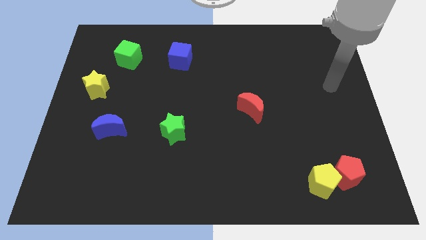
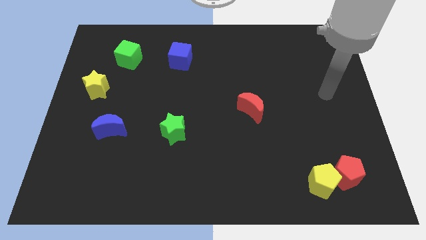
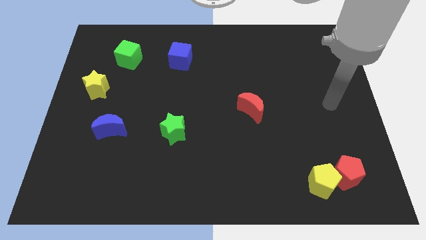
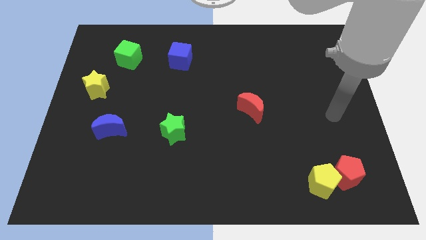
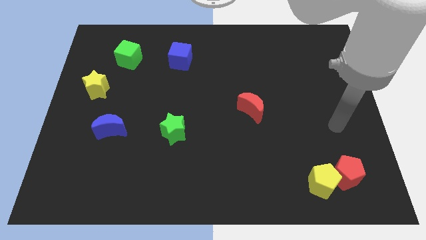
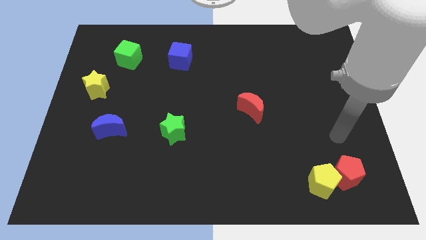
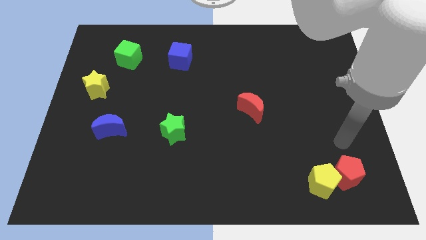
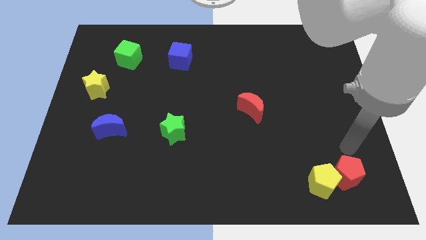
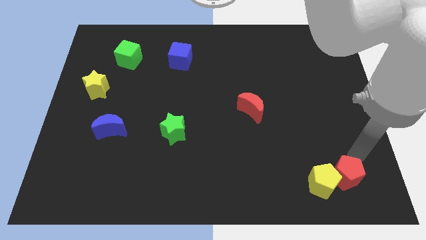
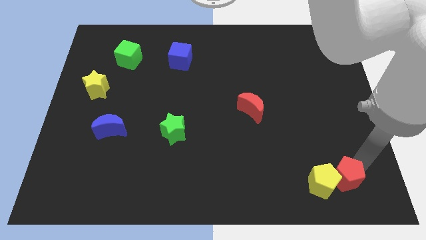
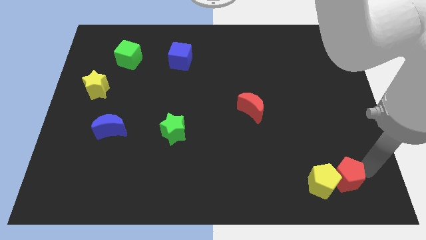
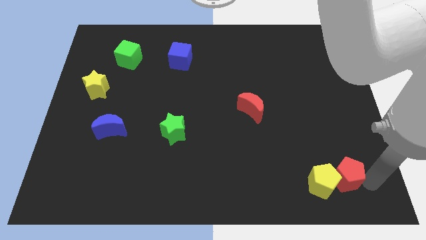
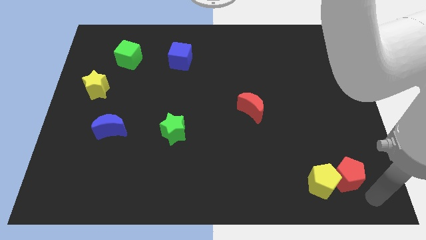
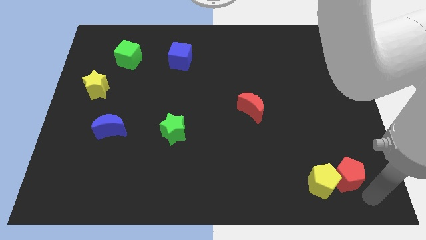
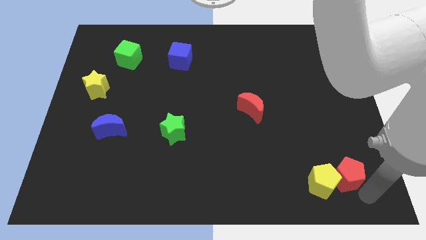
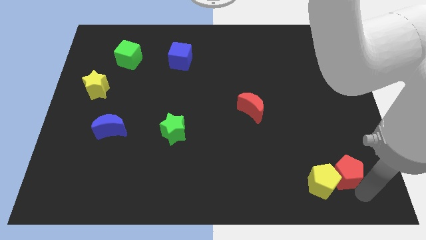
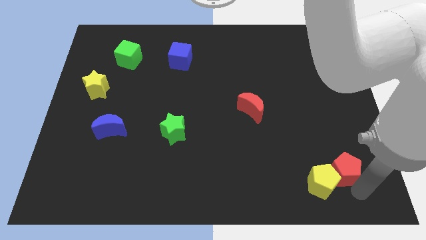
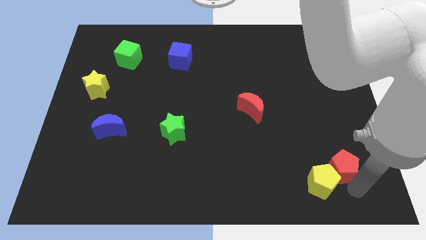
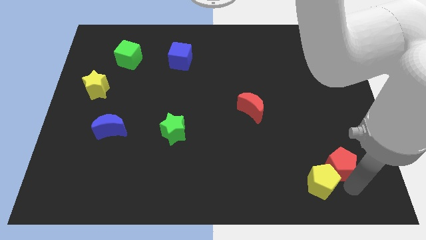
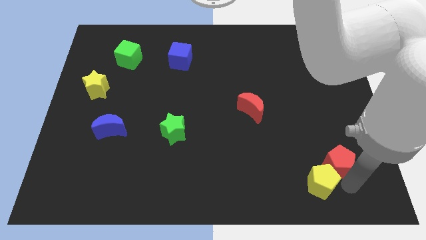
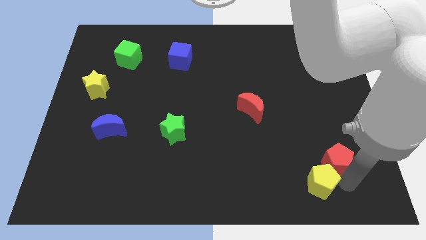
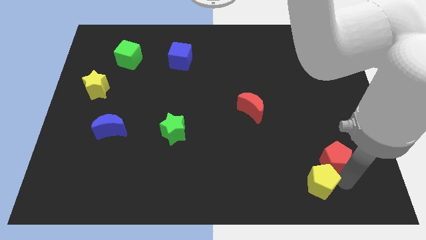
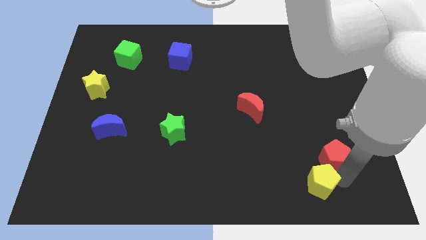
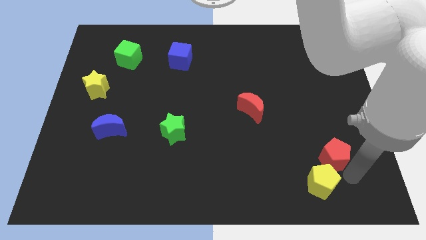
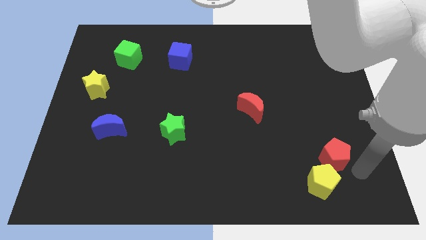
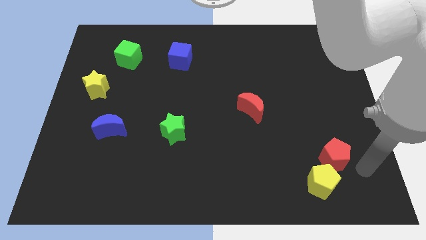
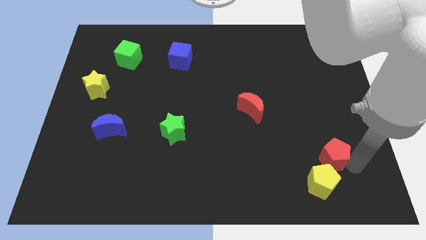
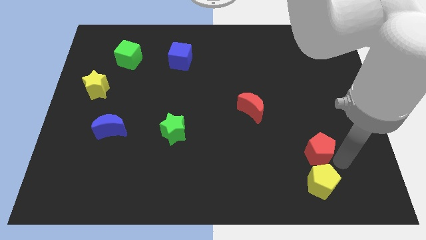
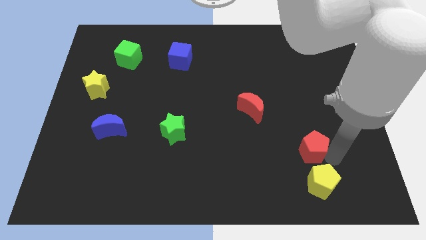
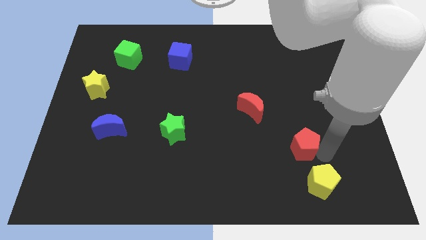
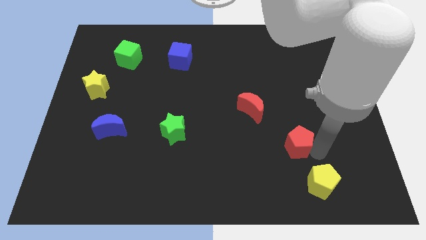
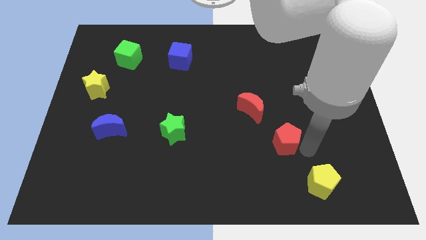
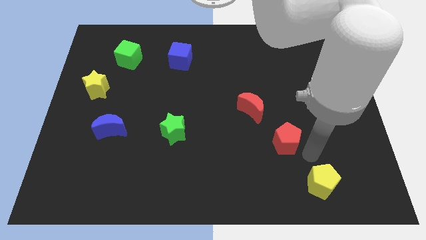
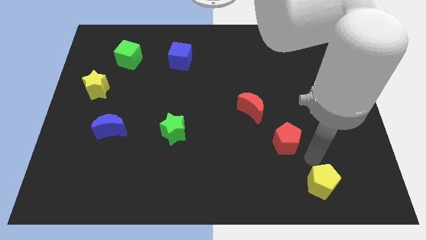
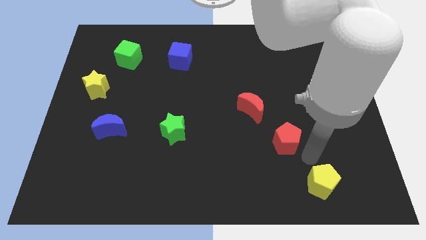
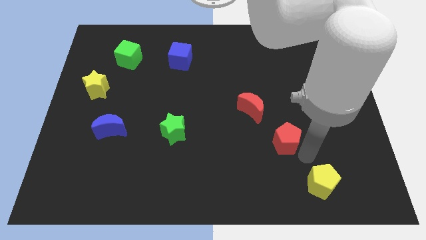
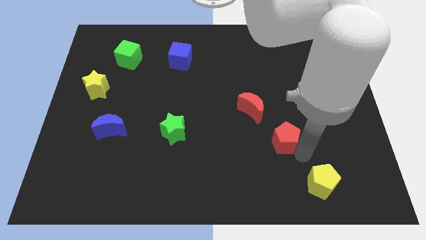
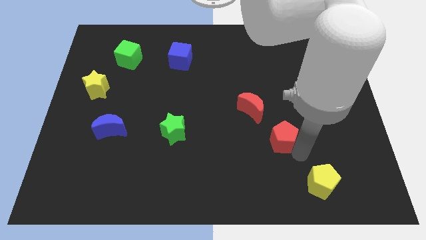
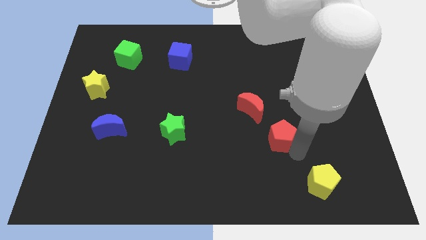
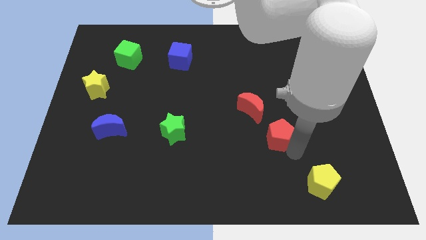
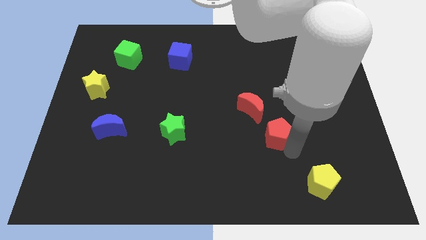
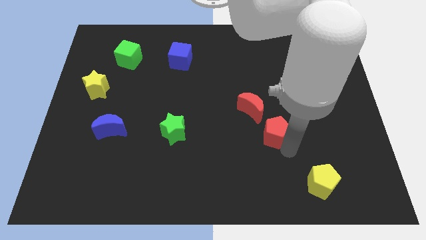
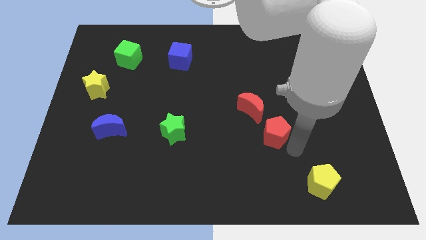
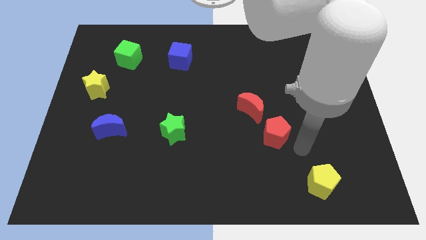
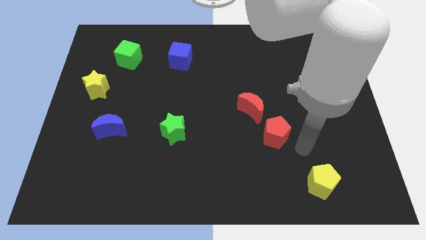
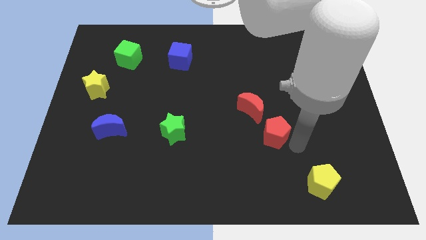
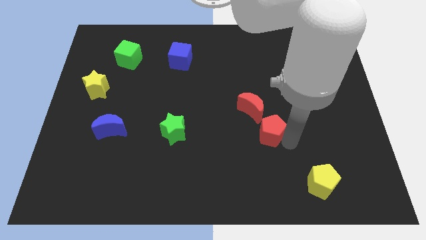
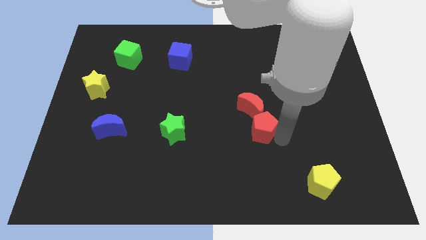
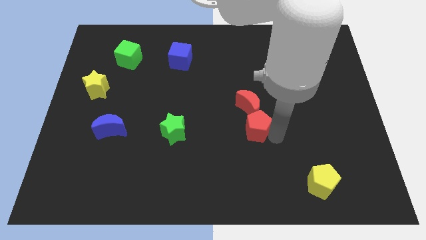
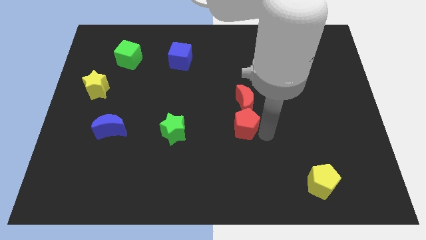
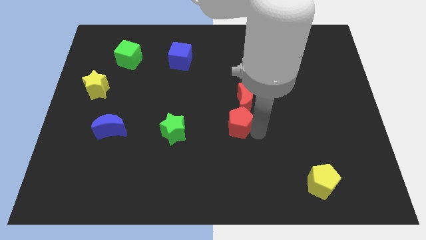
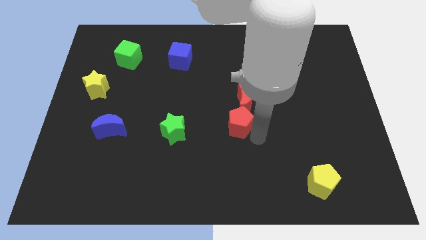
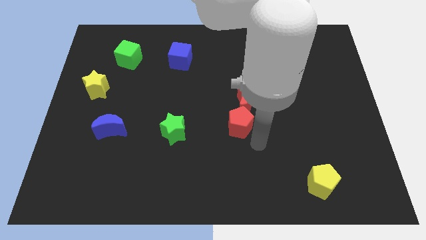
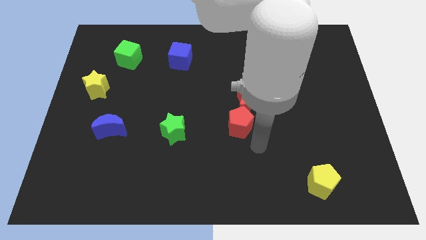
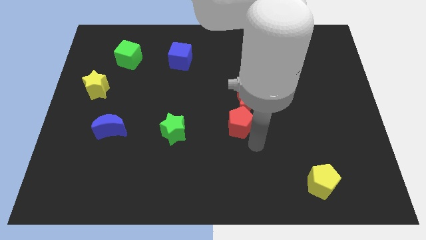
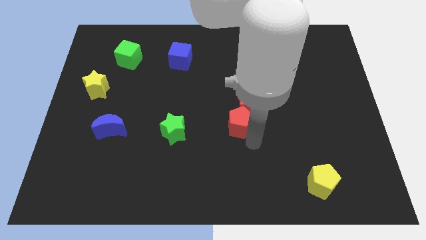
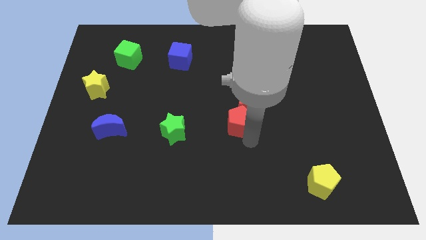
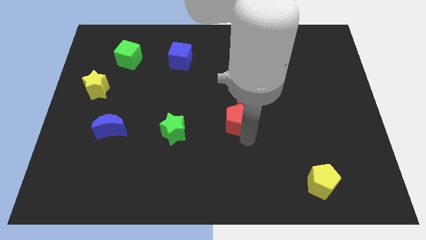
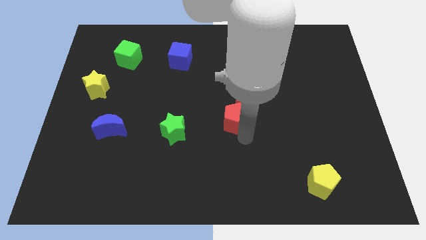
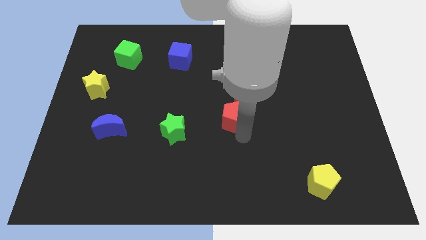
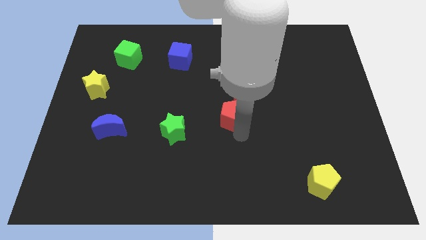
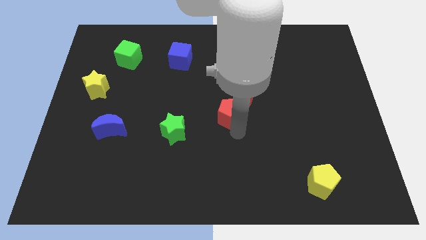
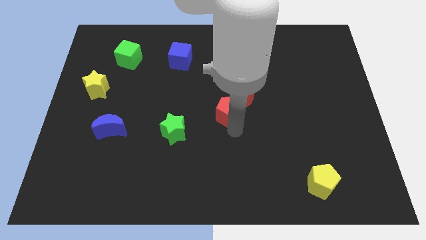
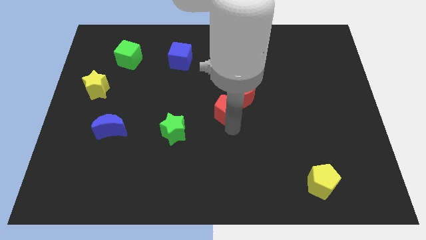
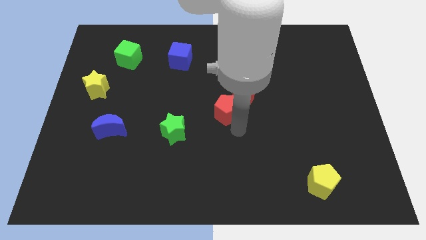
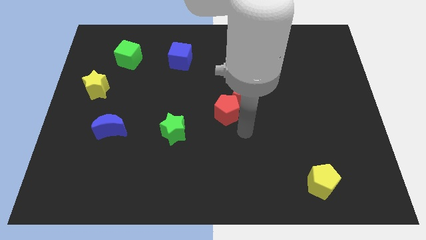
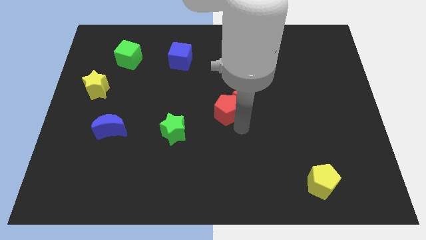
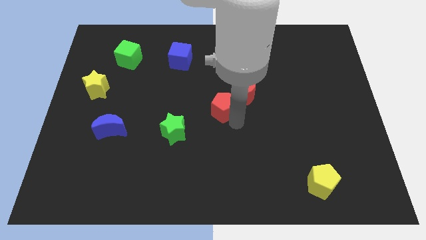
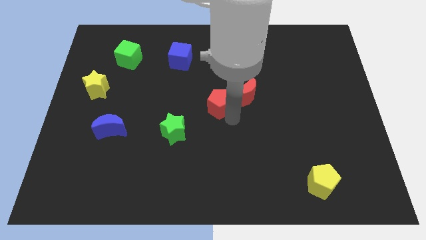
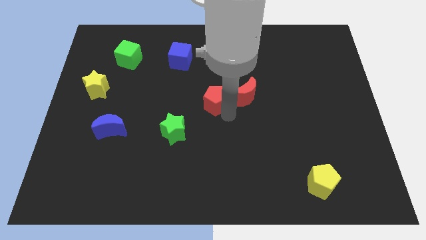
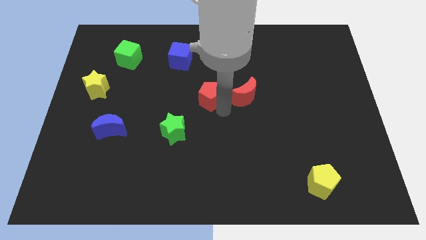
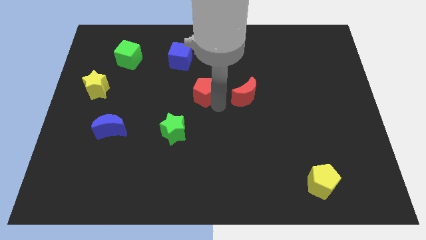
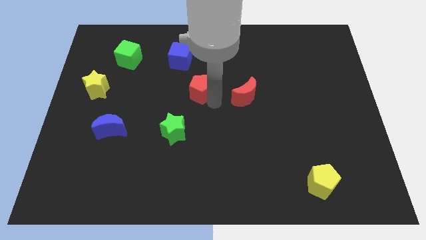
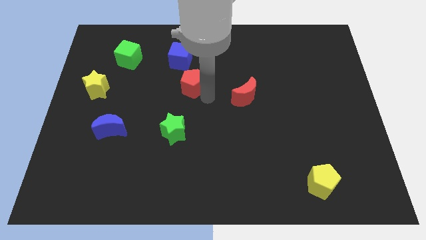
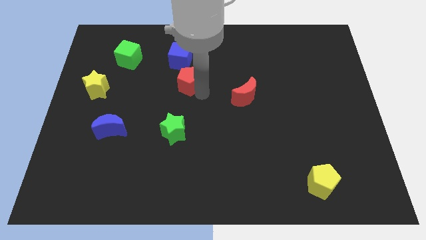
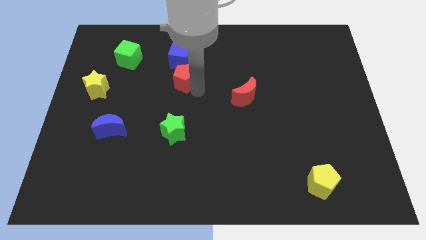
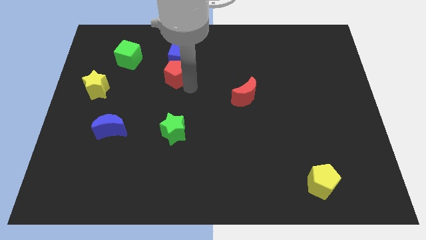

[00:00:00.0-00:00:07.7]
push the red pentagon to the blue cube
